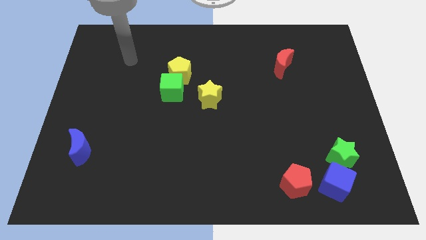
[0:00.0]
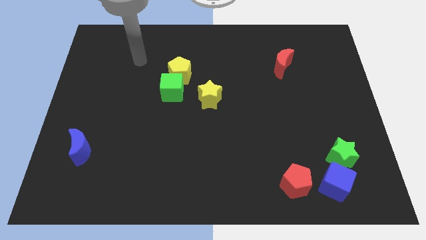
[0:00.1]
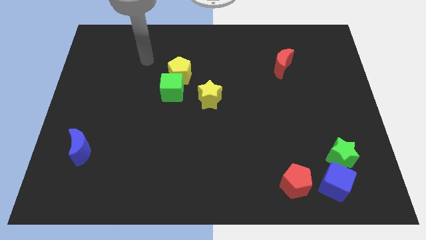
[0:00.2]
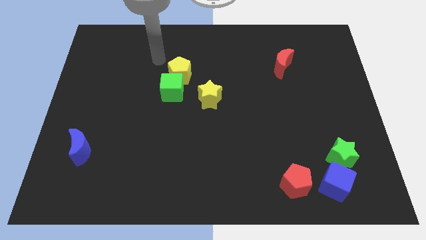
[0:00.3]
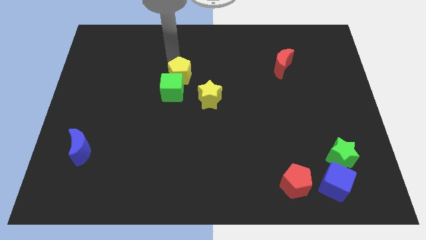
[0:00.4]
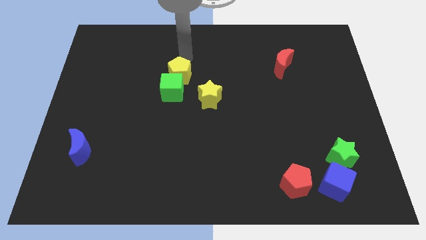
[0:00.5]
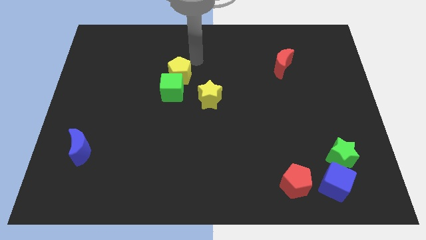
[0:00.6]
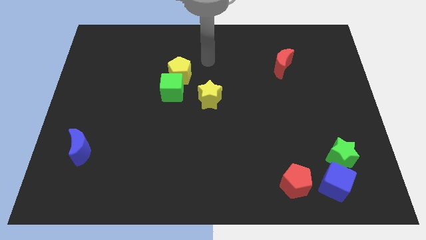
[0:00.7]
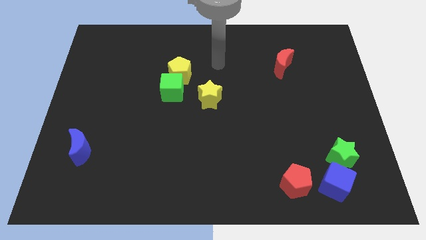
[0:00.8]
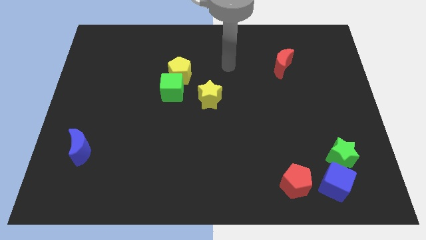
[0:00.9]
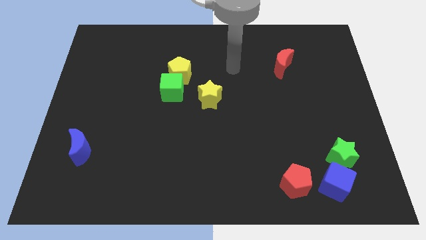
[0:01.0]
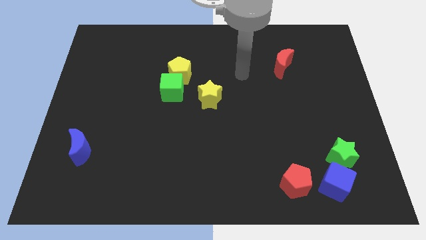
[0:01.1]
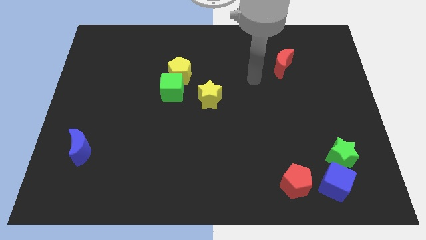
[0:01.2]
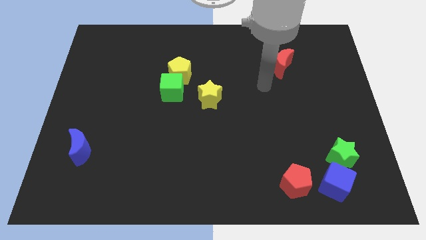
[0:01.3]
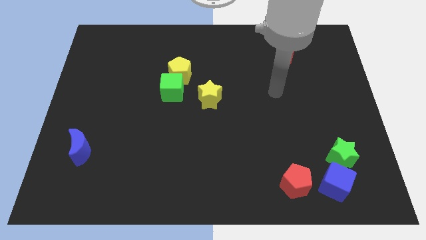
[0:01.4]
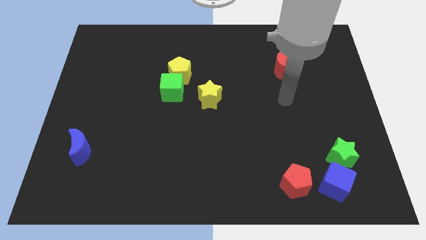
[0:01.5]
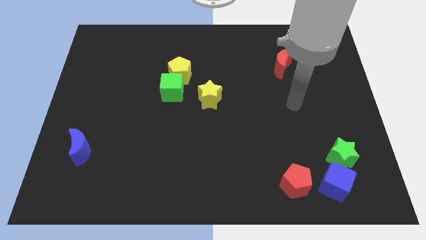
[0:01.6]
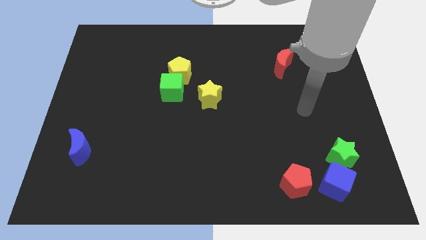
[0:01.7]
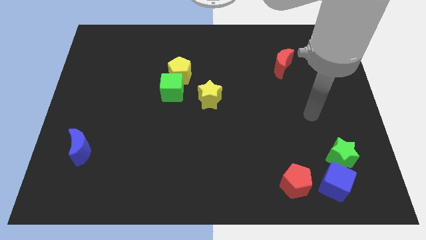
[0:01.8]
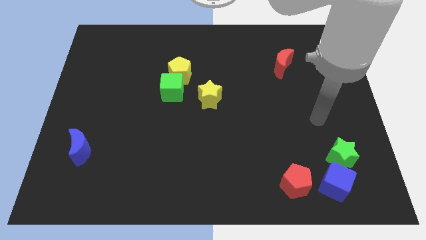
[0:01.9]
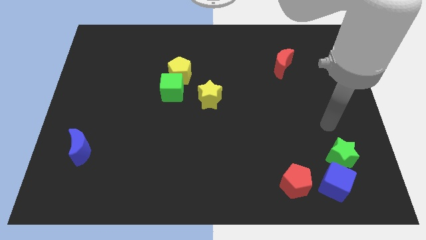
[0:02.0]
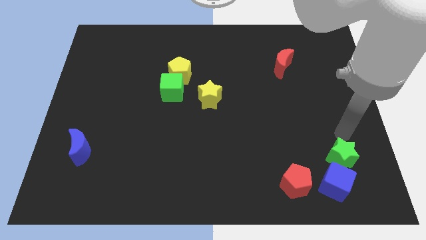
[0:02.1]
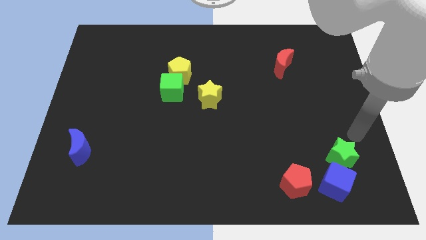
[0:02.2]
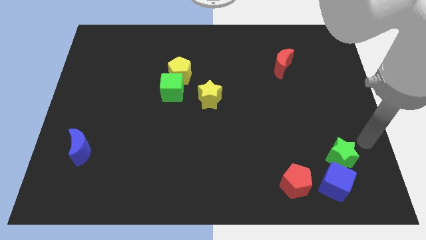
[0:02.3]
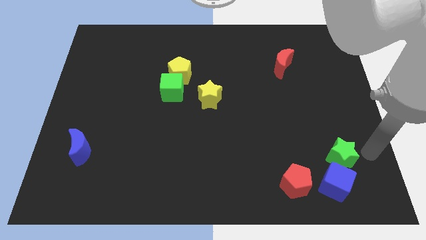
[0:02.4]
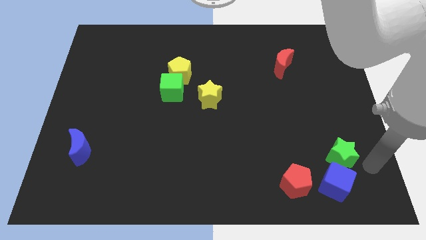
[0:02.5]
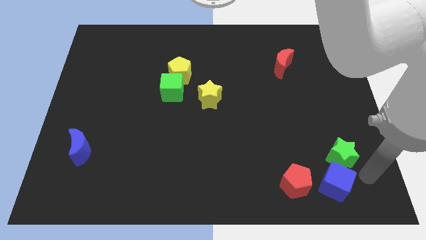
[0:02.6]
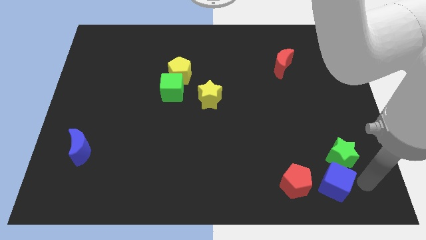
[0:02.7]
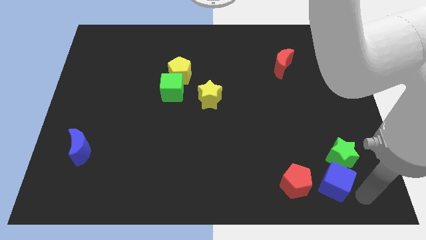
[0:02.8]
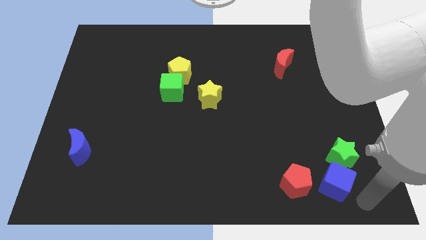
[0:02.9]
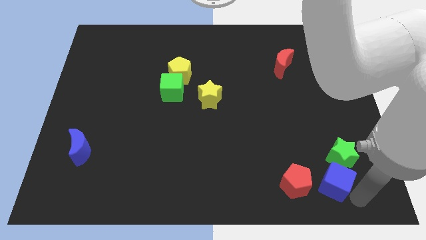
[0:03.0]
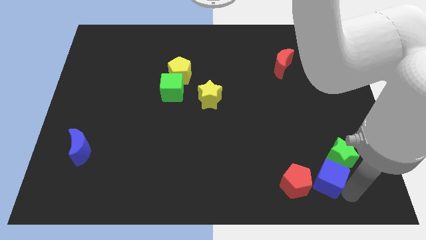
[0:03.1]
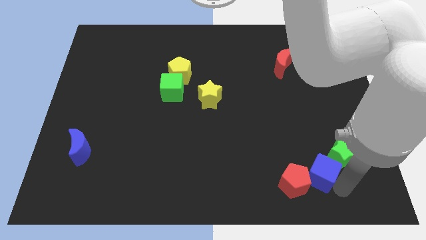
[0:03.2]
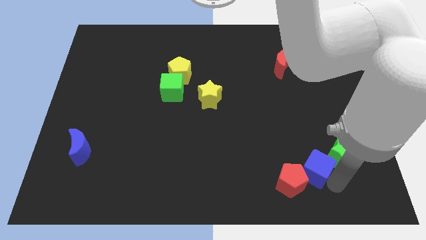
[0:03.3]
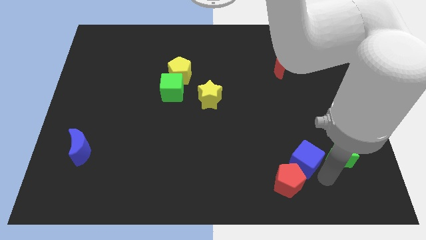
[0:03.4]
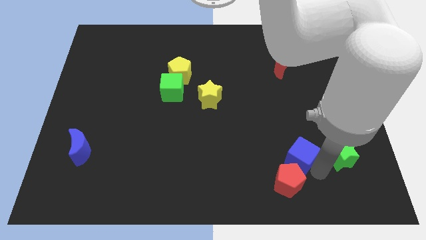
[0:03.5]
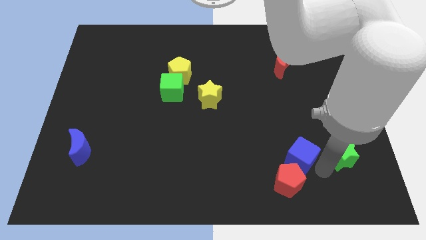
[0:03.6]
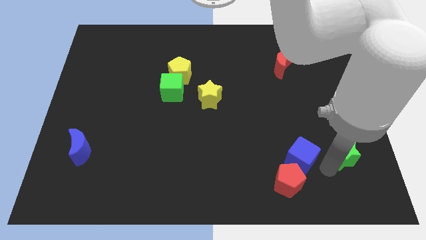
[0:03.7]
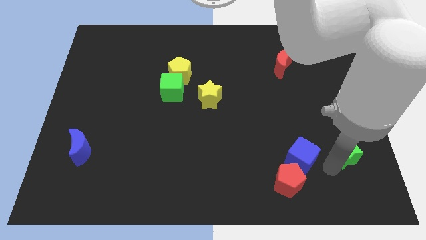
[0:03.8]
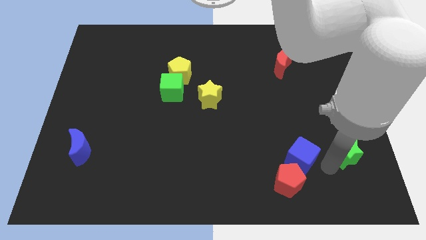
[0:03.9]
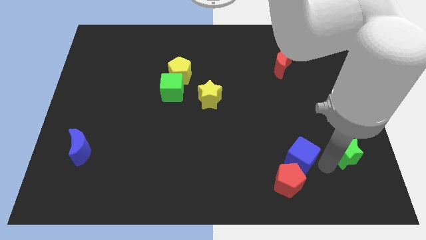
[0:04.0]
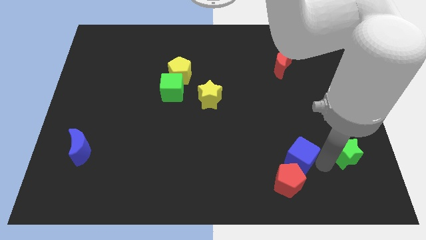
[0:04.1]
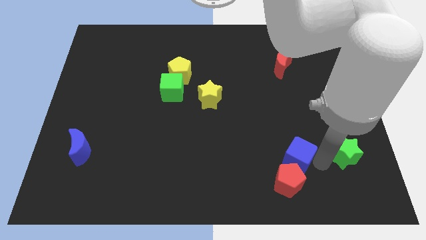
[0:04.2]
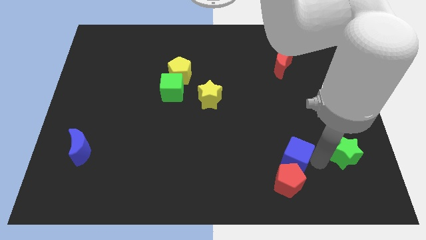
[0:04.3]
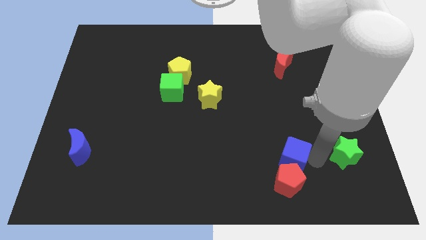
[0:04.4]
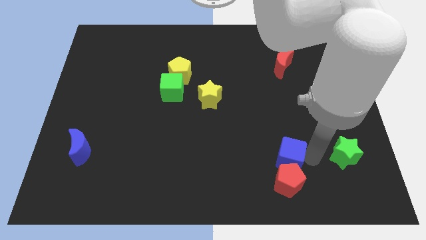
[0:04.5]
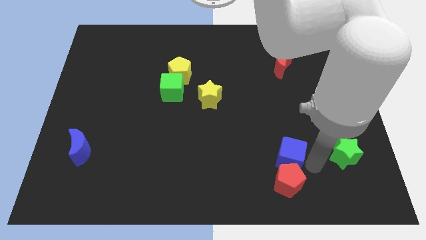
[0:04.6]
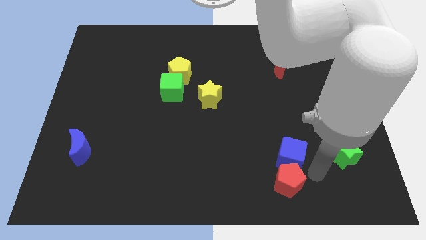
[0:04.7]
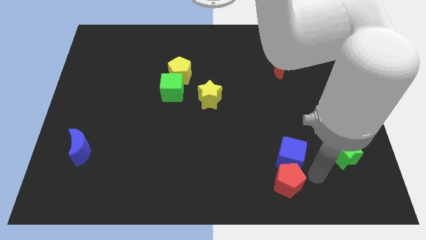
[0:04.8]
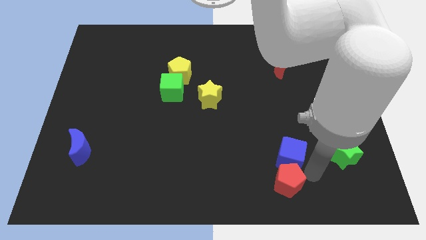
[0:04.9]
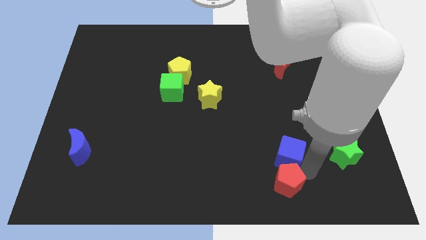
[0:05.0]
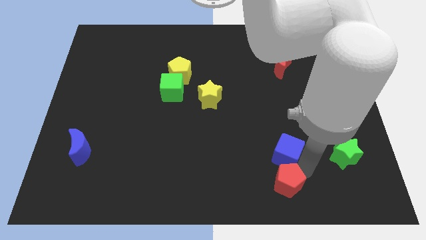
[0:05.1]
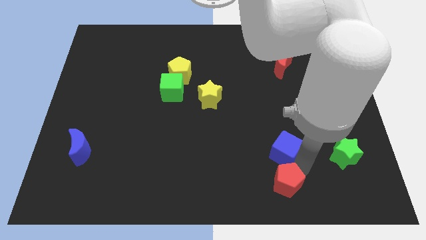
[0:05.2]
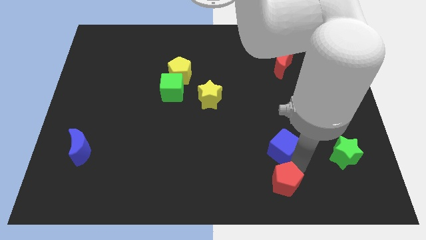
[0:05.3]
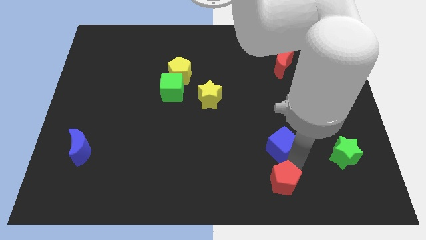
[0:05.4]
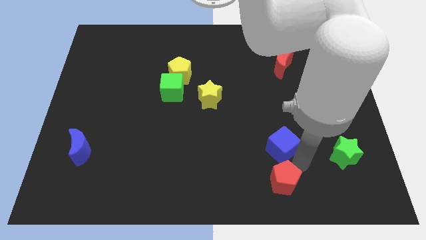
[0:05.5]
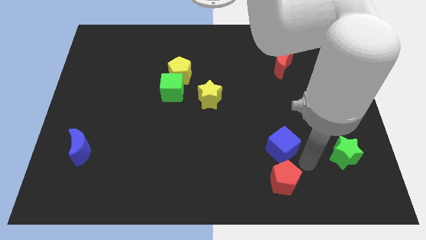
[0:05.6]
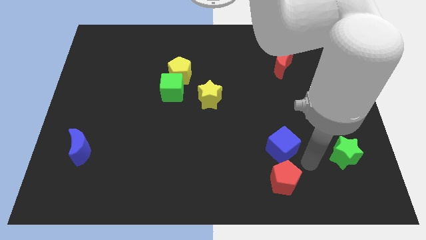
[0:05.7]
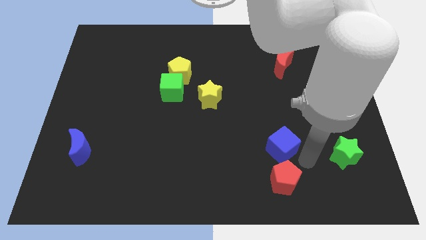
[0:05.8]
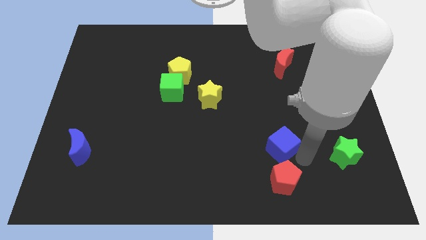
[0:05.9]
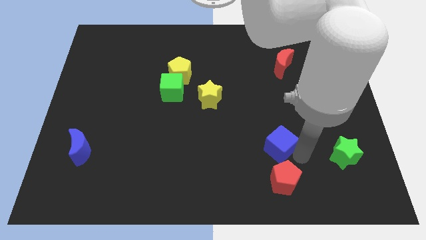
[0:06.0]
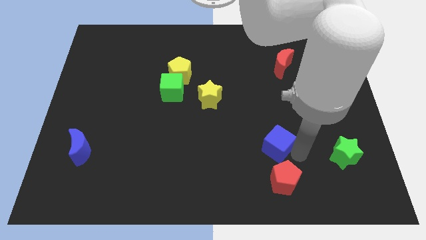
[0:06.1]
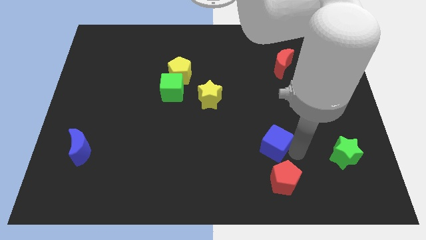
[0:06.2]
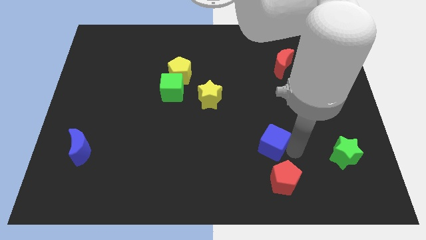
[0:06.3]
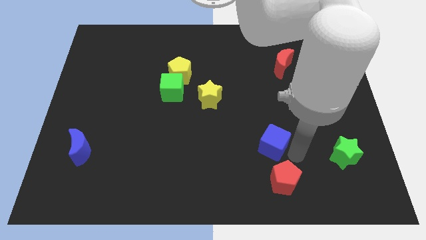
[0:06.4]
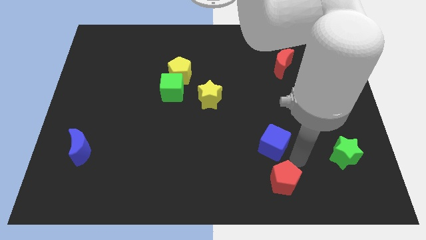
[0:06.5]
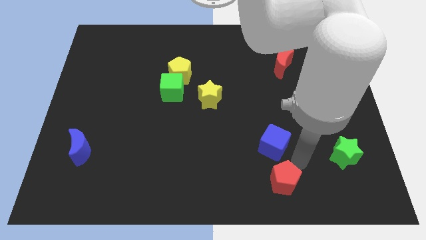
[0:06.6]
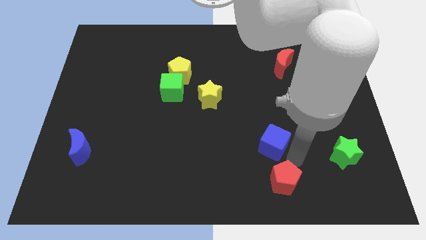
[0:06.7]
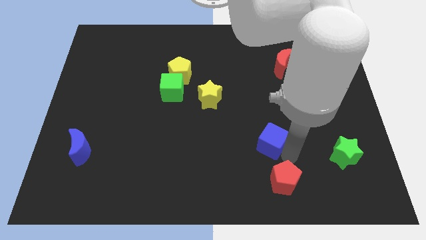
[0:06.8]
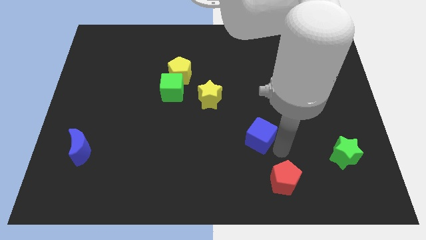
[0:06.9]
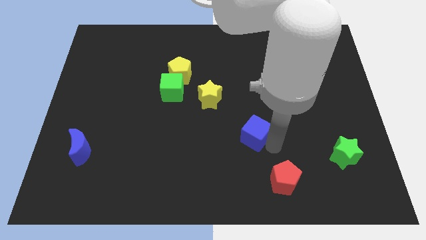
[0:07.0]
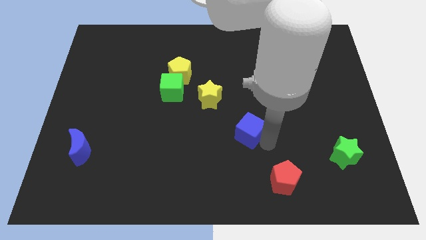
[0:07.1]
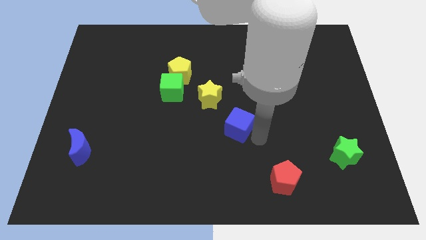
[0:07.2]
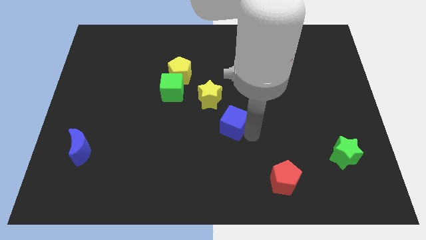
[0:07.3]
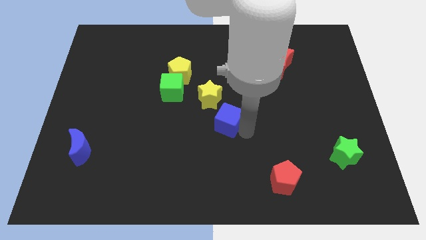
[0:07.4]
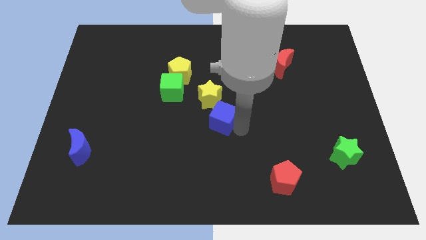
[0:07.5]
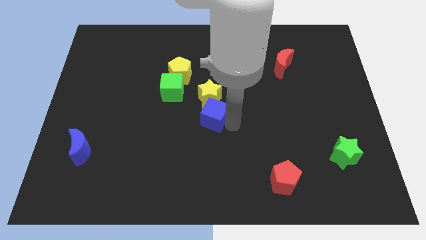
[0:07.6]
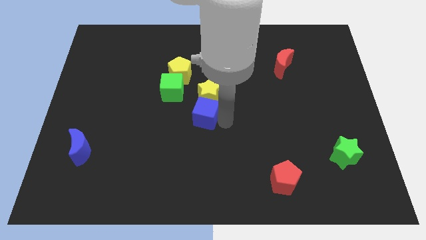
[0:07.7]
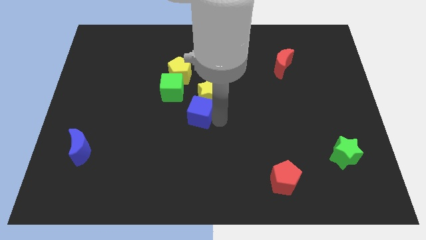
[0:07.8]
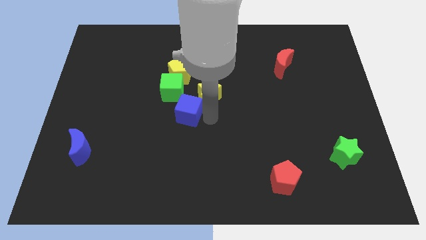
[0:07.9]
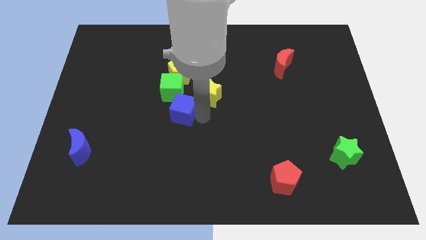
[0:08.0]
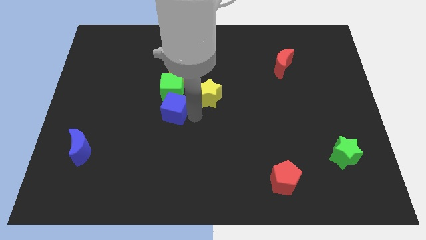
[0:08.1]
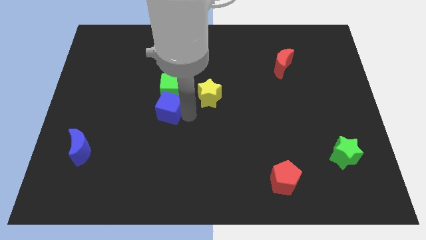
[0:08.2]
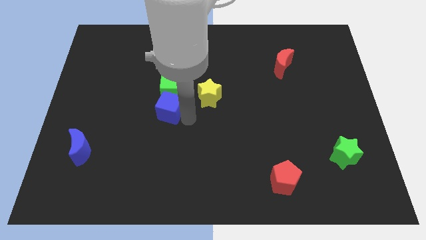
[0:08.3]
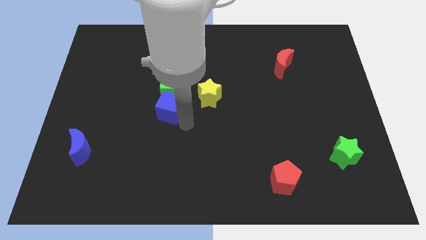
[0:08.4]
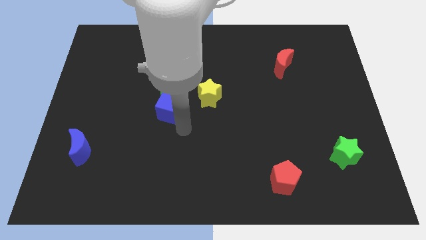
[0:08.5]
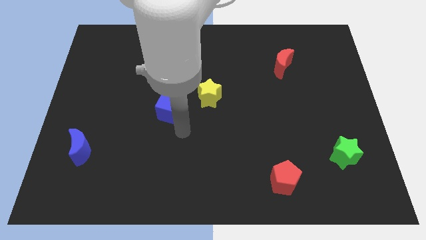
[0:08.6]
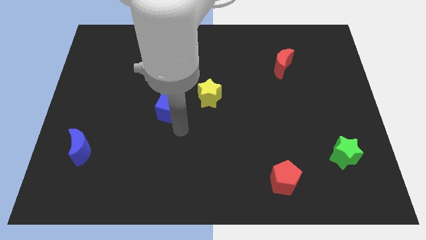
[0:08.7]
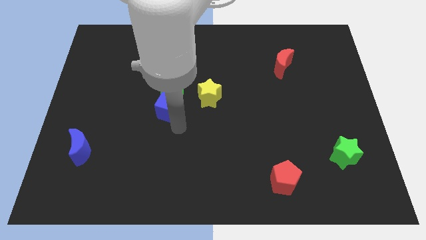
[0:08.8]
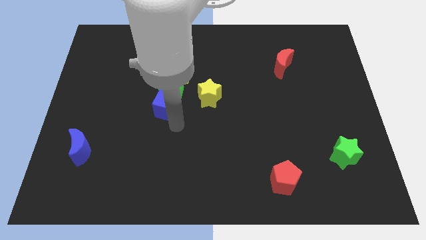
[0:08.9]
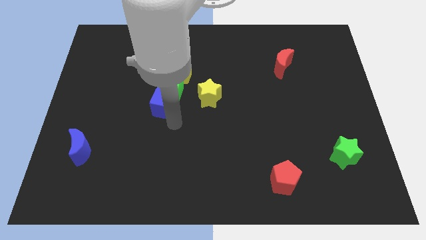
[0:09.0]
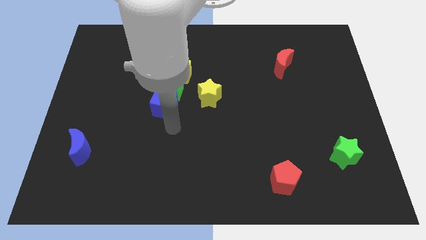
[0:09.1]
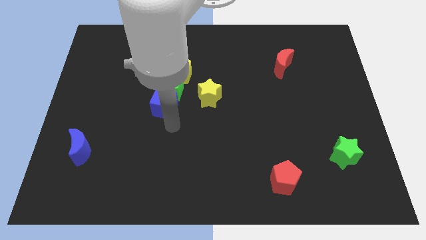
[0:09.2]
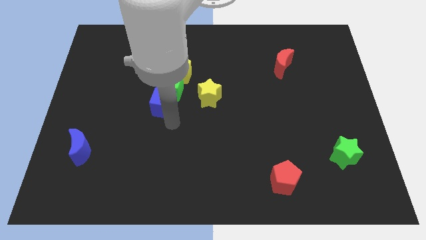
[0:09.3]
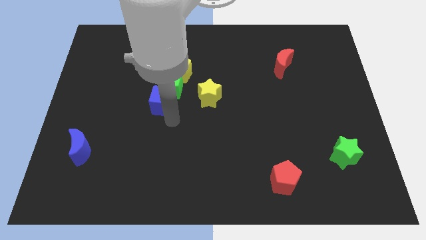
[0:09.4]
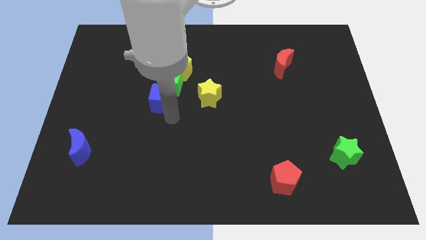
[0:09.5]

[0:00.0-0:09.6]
push the blue cube to the bottom left side of the yellow pentagon
